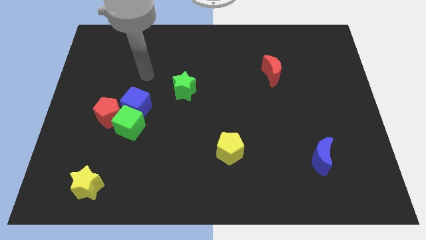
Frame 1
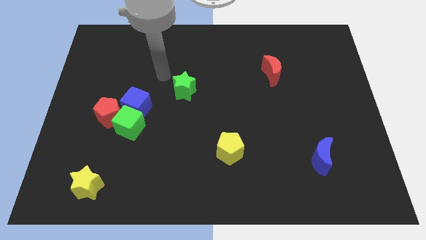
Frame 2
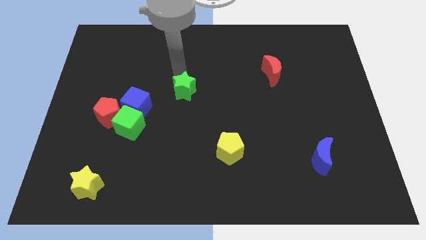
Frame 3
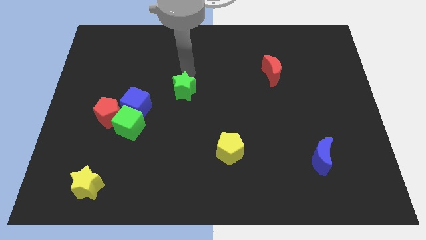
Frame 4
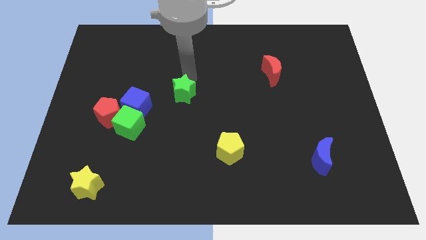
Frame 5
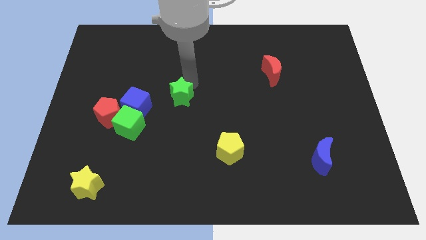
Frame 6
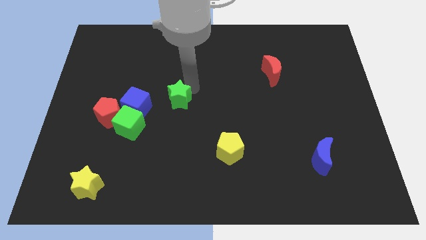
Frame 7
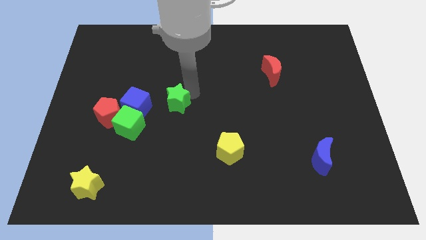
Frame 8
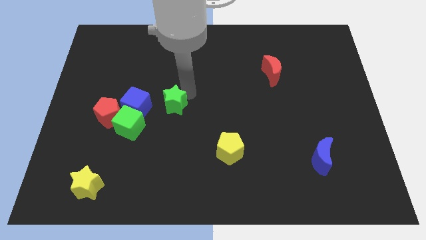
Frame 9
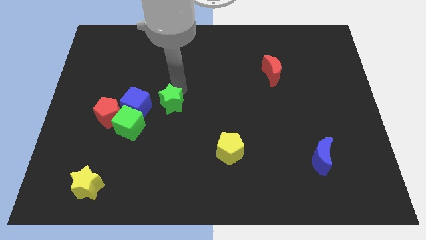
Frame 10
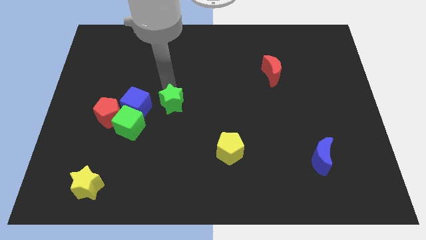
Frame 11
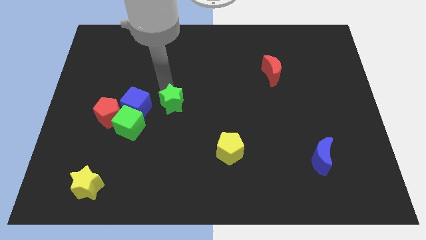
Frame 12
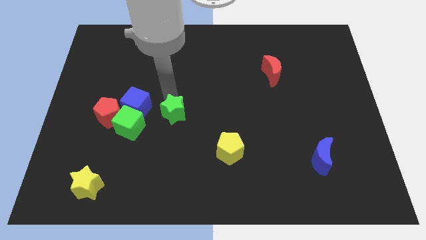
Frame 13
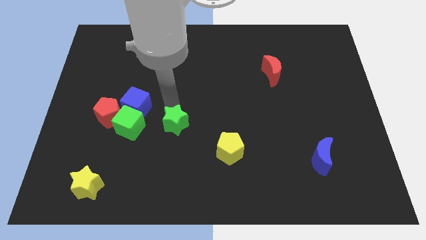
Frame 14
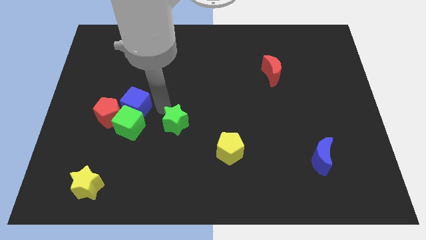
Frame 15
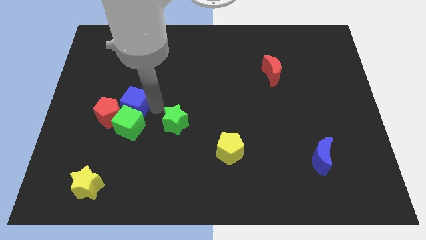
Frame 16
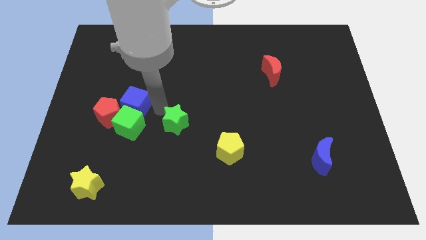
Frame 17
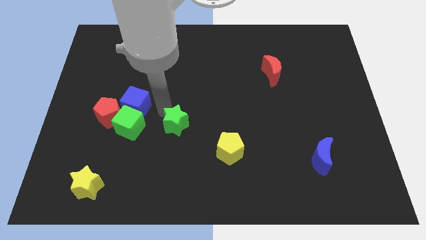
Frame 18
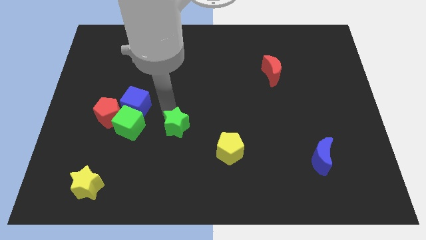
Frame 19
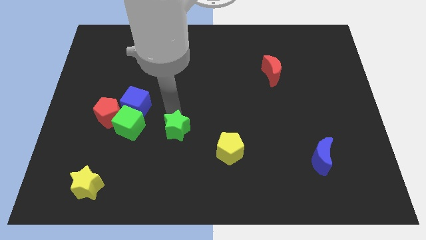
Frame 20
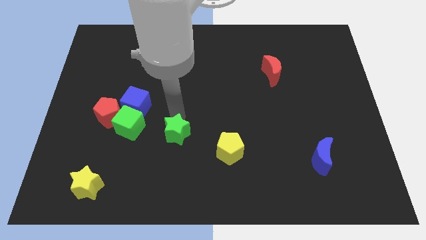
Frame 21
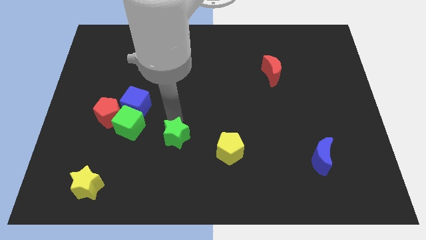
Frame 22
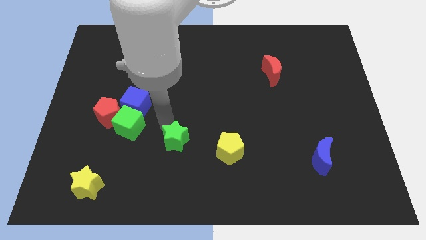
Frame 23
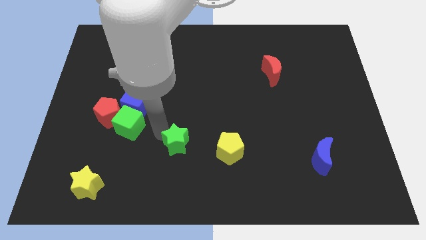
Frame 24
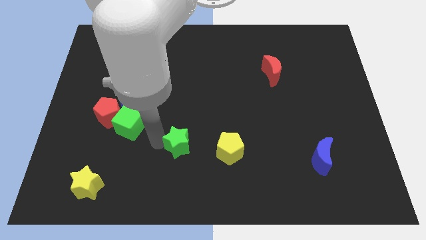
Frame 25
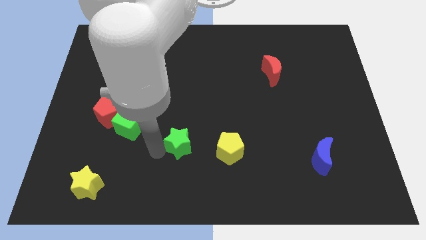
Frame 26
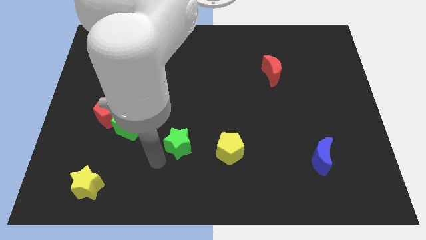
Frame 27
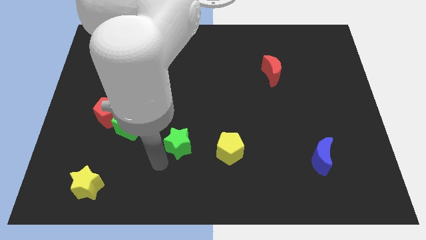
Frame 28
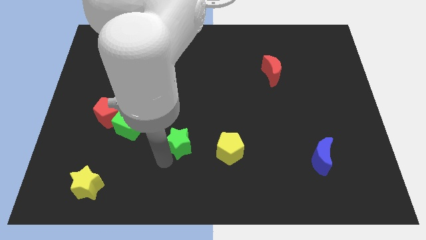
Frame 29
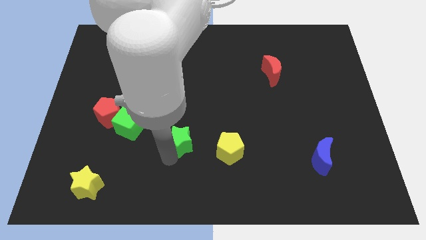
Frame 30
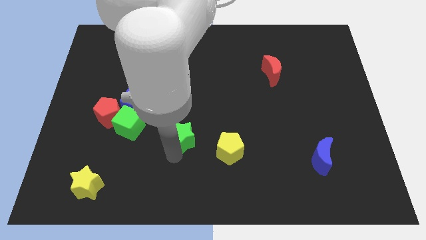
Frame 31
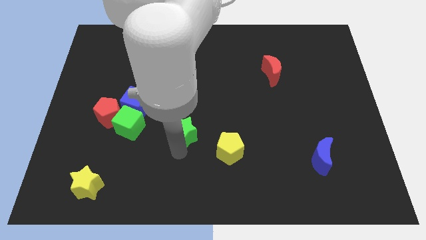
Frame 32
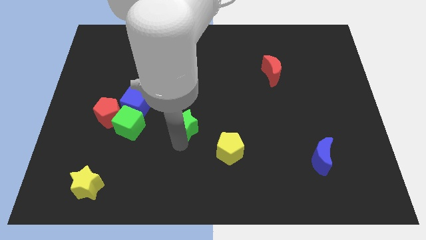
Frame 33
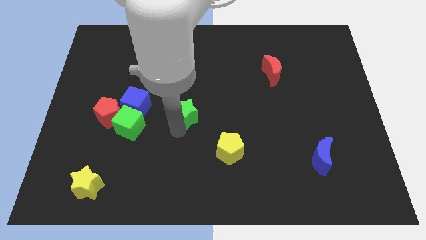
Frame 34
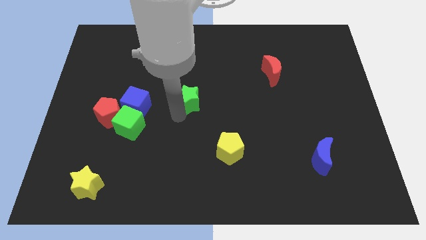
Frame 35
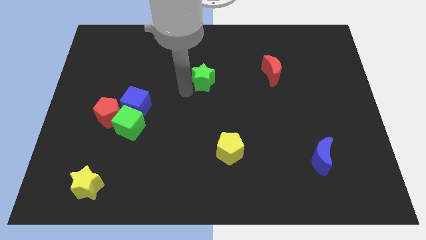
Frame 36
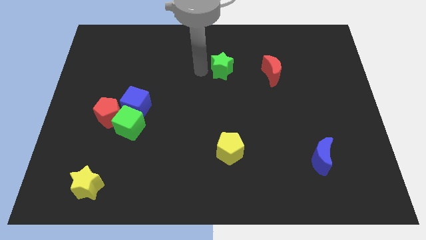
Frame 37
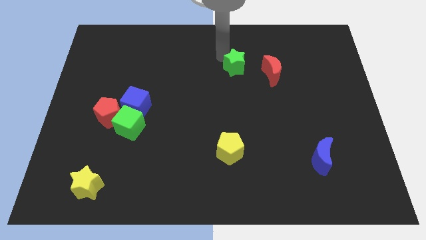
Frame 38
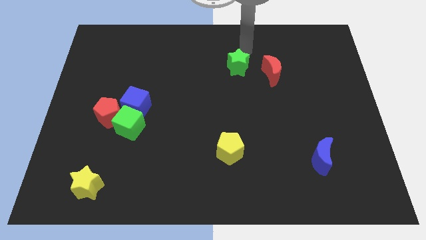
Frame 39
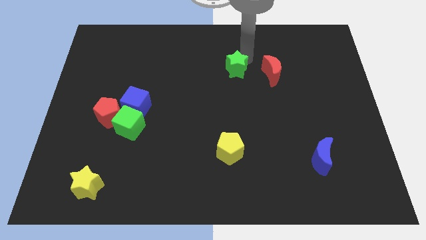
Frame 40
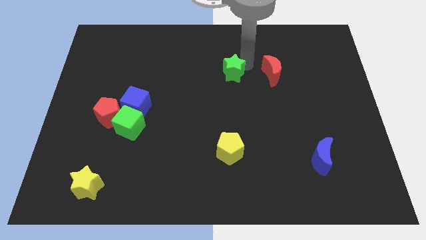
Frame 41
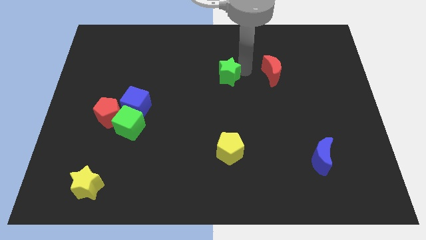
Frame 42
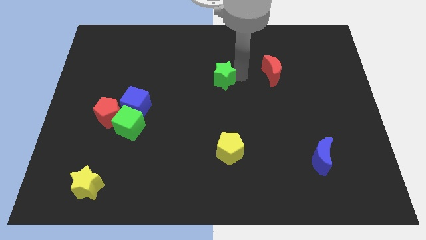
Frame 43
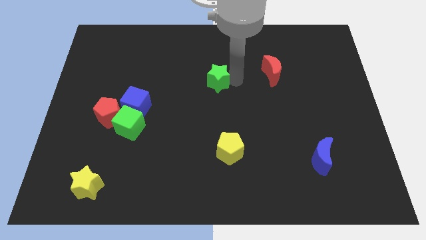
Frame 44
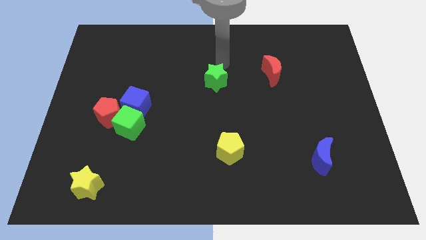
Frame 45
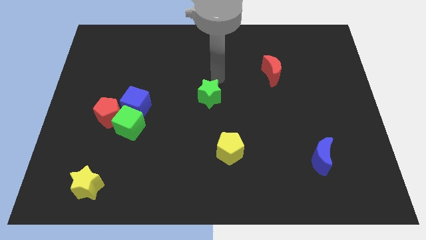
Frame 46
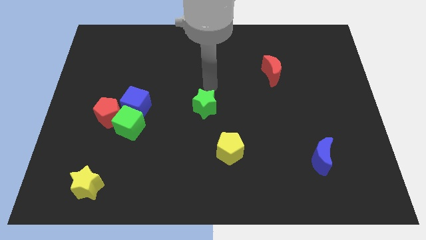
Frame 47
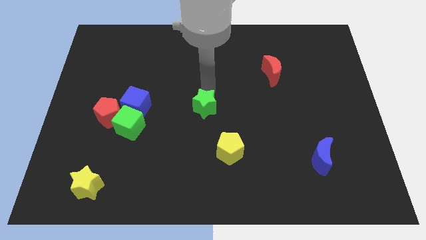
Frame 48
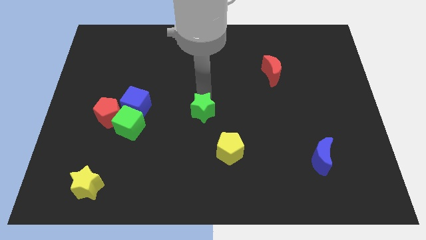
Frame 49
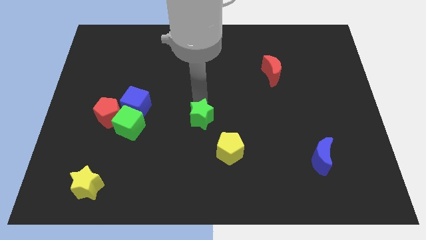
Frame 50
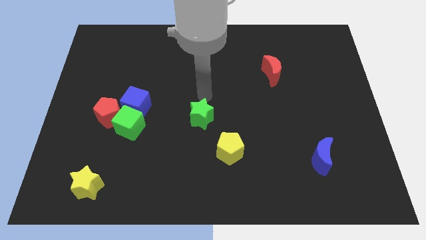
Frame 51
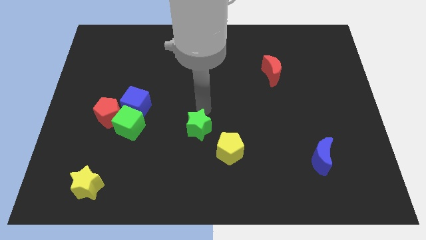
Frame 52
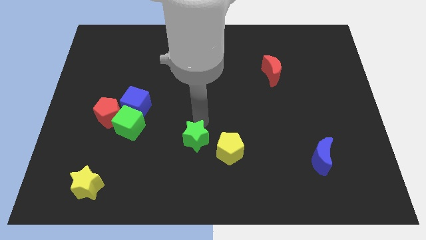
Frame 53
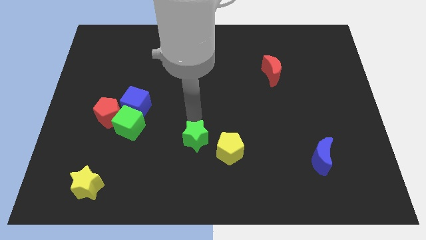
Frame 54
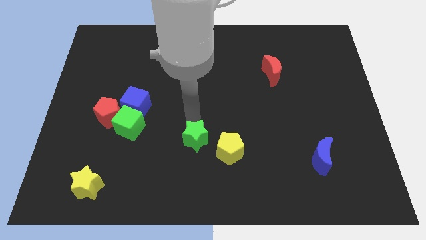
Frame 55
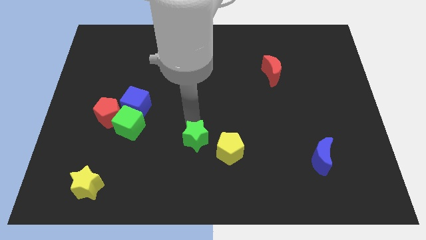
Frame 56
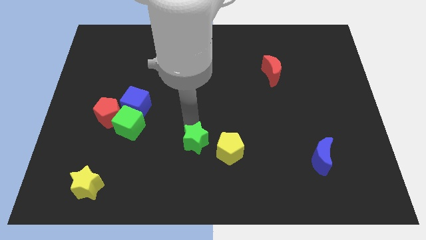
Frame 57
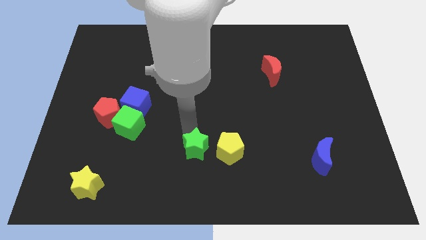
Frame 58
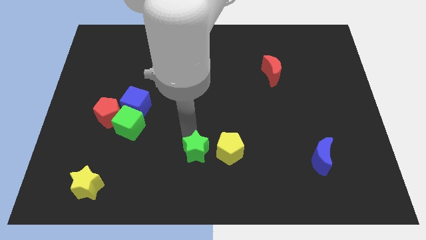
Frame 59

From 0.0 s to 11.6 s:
slide the green star to the bottom left of the yellow pentagon

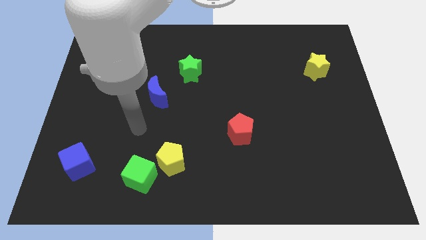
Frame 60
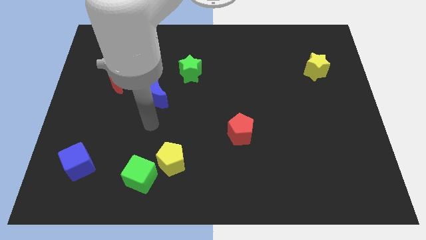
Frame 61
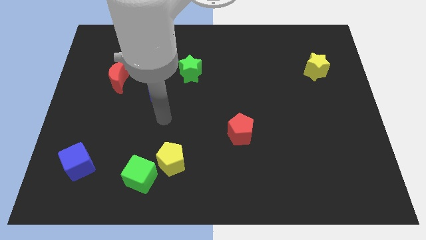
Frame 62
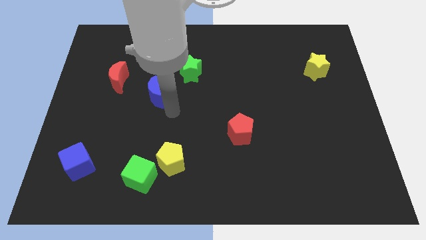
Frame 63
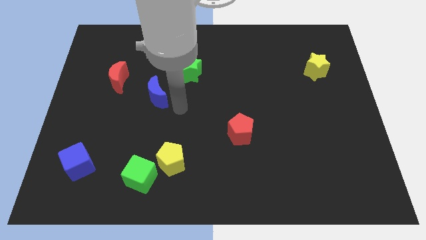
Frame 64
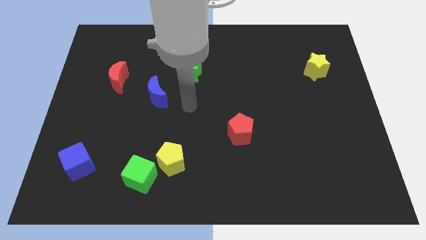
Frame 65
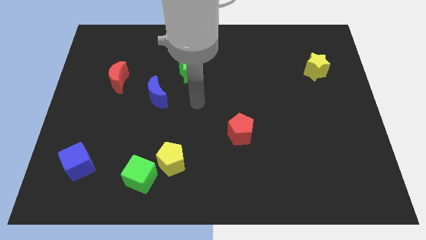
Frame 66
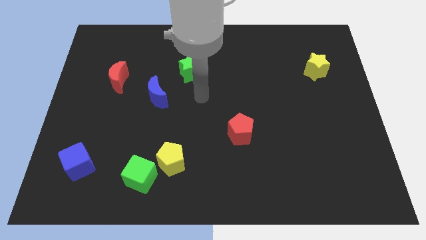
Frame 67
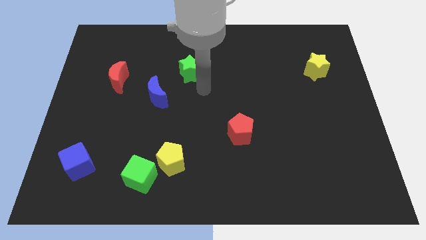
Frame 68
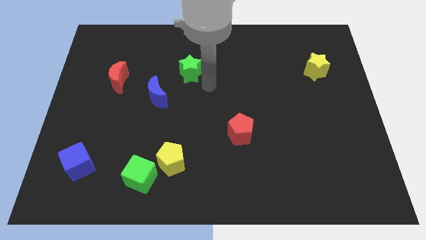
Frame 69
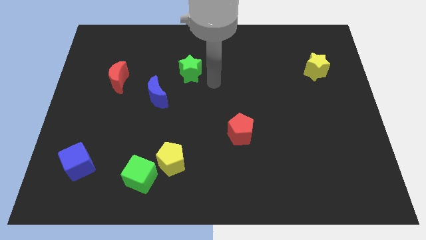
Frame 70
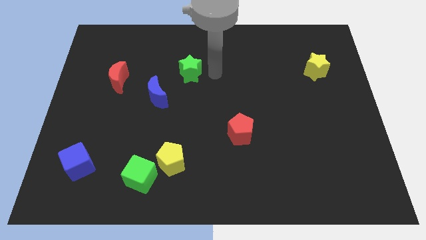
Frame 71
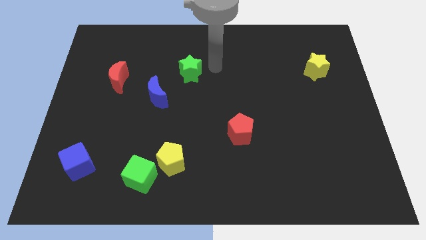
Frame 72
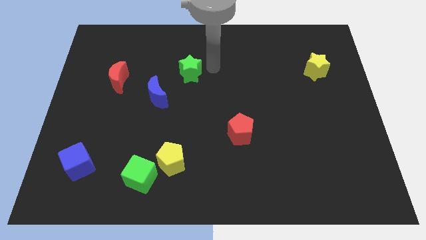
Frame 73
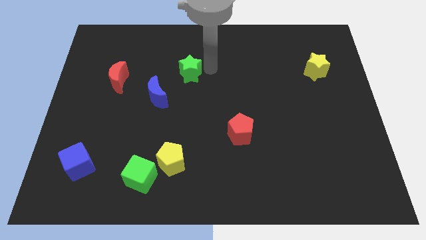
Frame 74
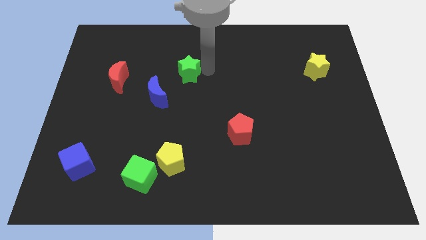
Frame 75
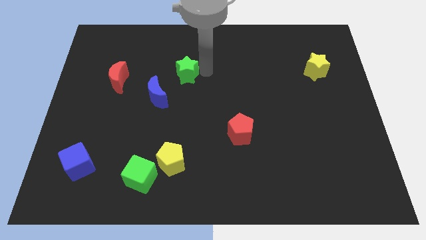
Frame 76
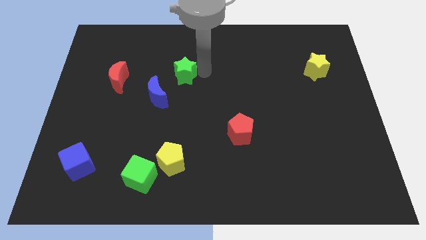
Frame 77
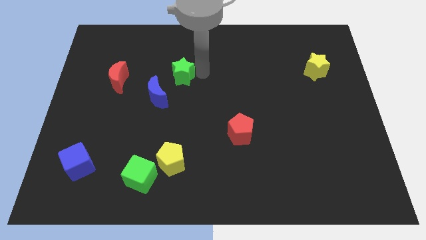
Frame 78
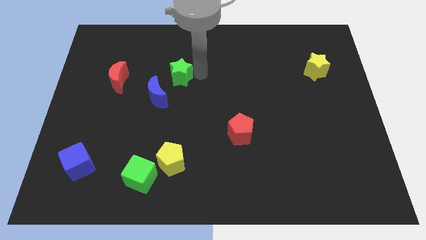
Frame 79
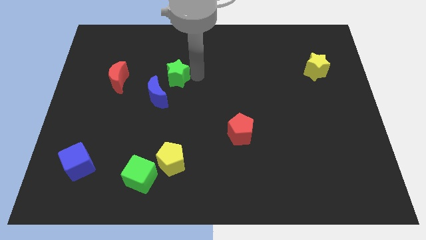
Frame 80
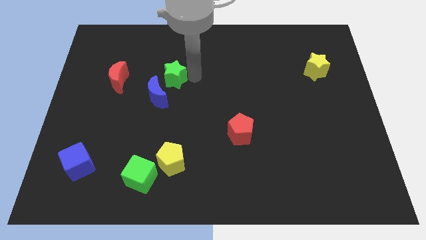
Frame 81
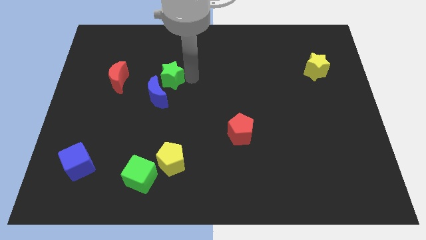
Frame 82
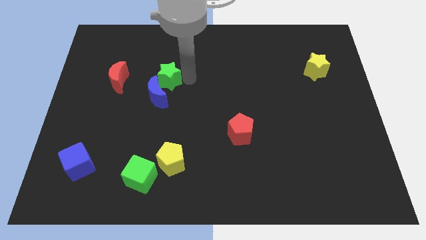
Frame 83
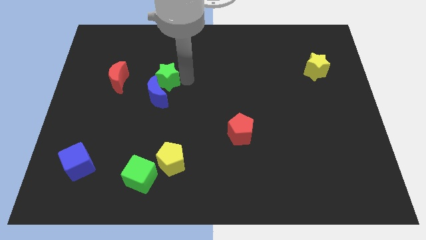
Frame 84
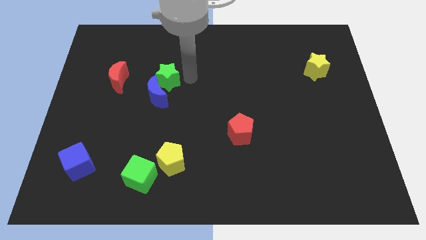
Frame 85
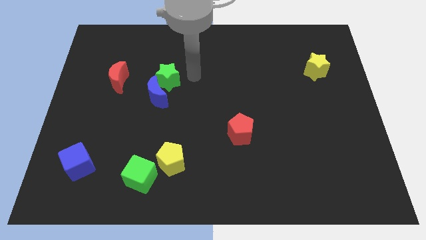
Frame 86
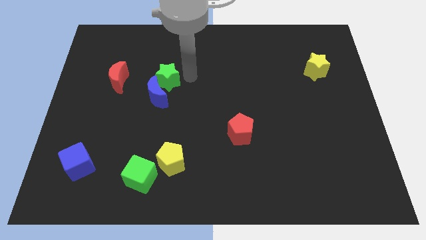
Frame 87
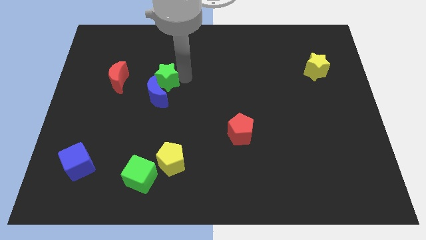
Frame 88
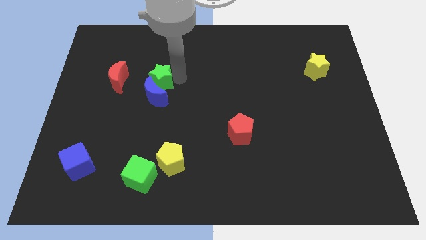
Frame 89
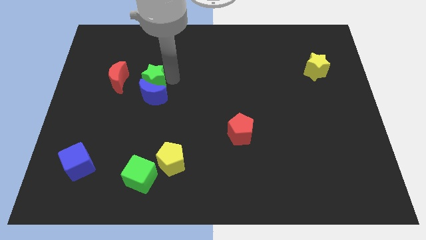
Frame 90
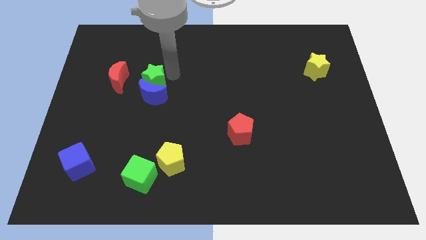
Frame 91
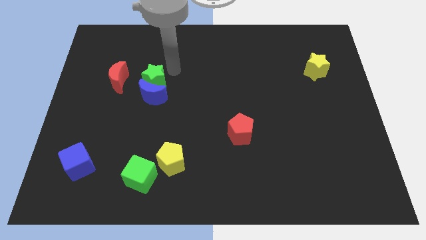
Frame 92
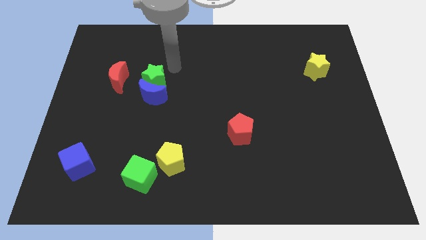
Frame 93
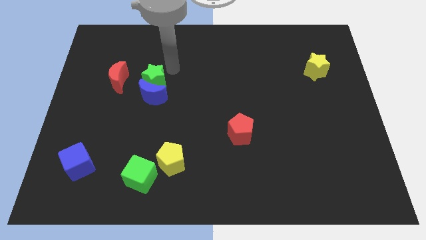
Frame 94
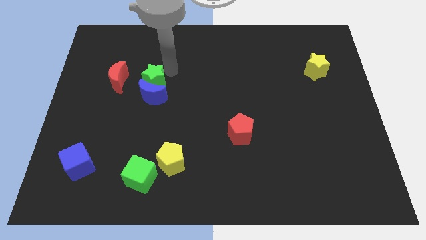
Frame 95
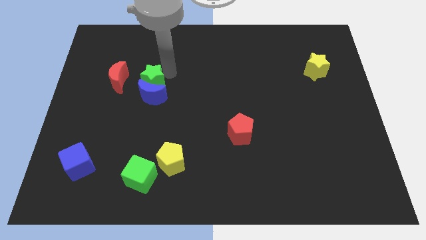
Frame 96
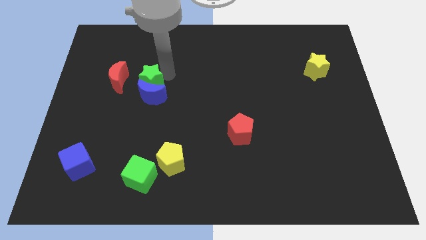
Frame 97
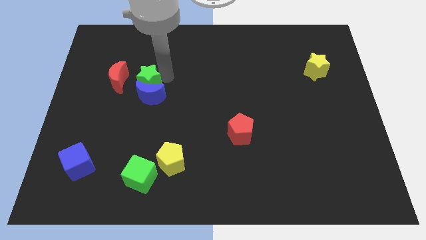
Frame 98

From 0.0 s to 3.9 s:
slide the green star to the bottom right of the red moon
